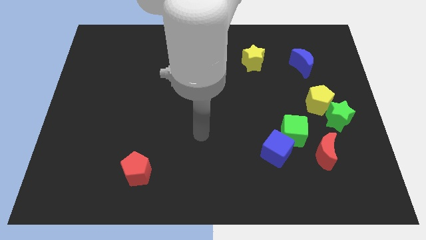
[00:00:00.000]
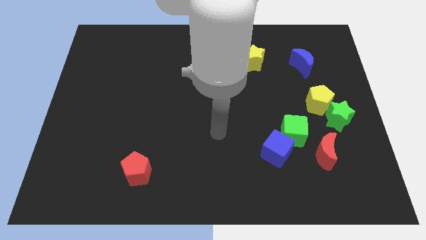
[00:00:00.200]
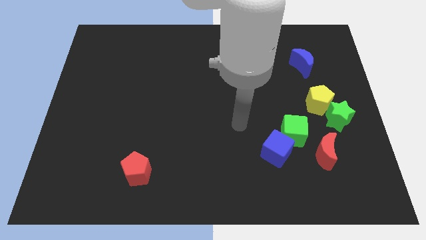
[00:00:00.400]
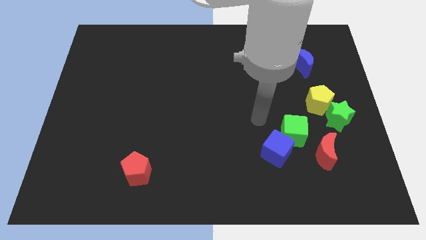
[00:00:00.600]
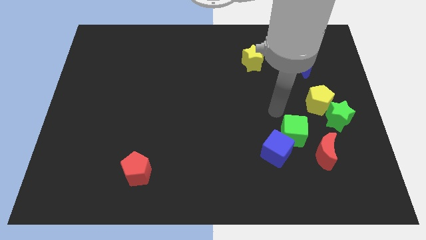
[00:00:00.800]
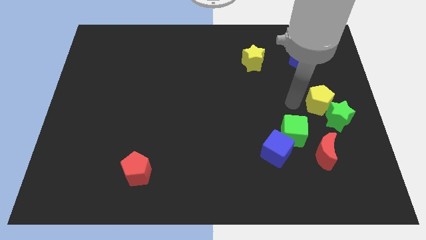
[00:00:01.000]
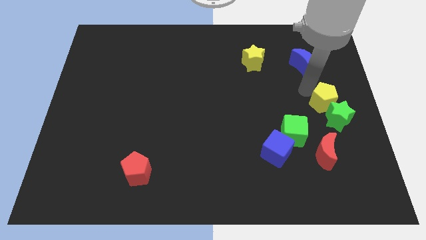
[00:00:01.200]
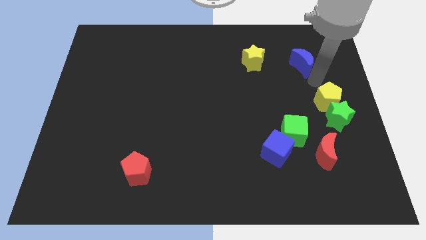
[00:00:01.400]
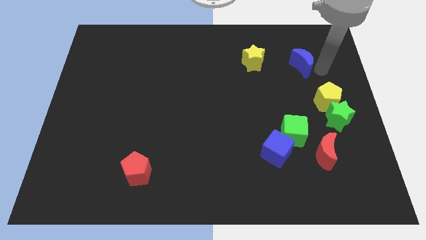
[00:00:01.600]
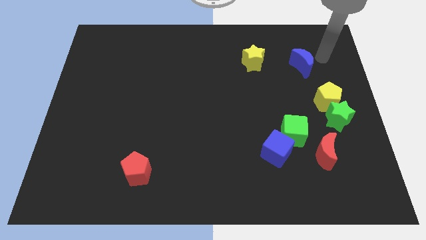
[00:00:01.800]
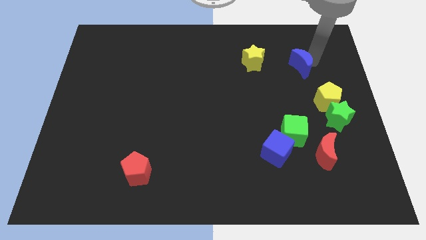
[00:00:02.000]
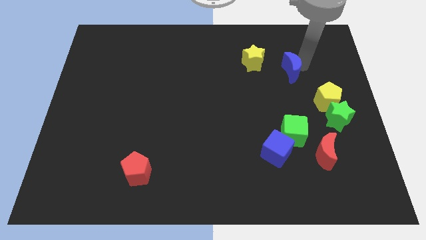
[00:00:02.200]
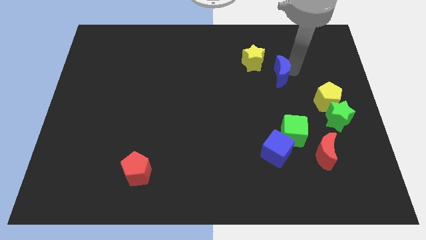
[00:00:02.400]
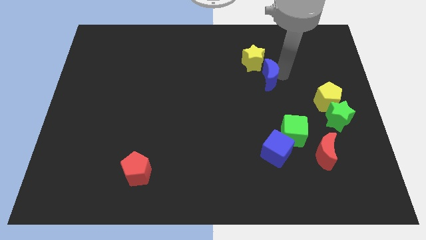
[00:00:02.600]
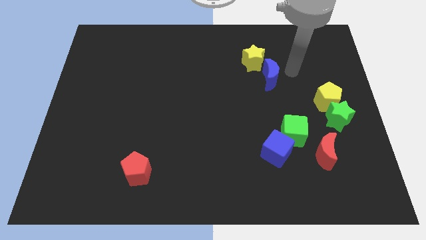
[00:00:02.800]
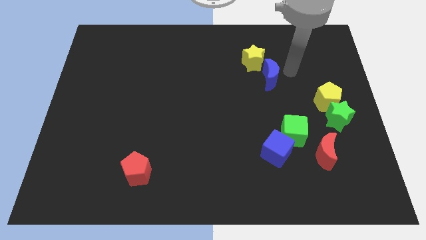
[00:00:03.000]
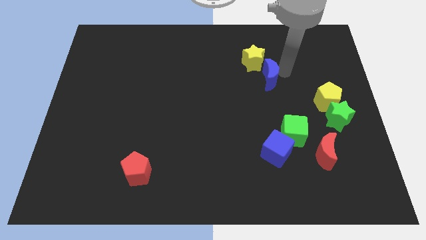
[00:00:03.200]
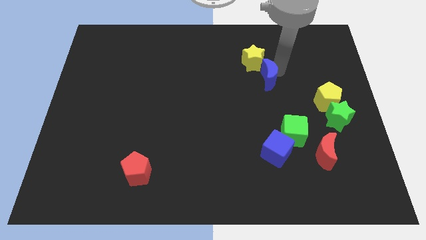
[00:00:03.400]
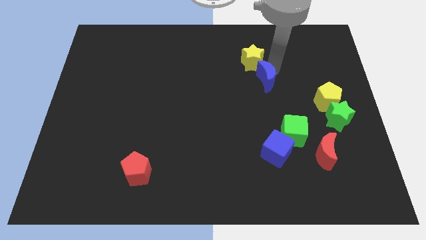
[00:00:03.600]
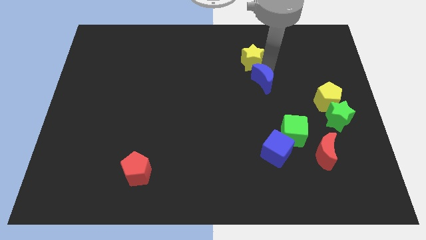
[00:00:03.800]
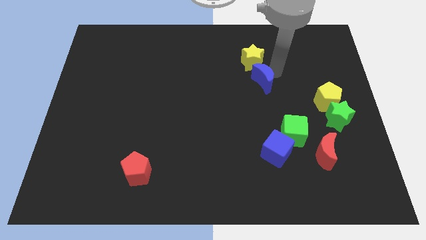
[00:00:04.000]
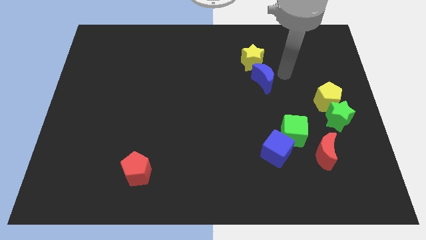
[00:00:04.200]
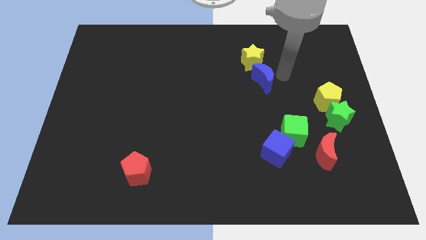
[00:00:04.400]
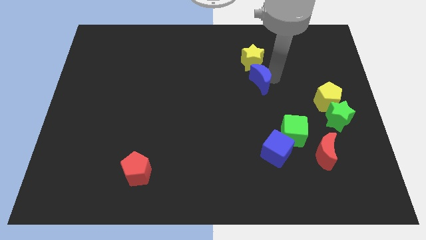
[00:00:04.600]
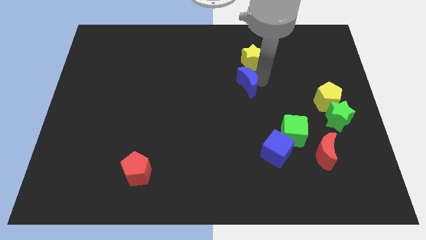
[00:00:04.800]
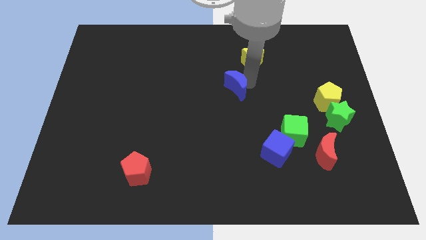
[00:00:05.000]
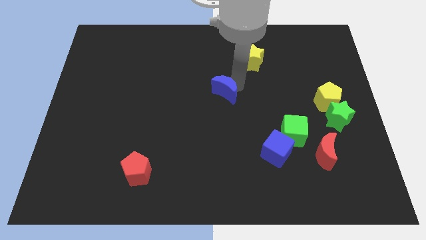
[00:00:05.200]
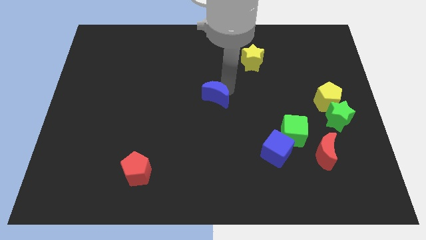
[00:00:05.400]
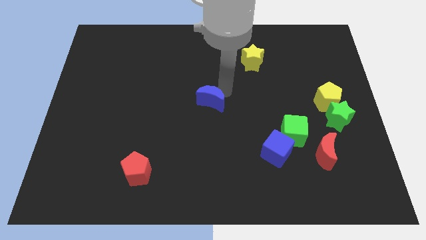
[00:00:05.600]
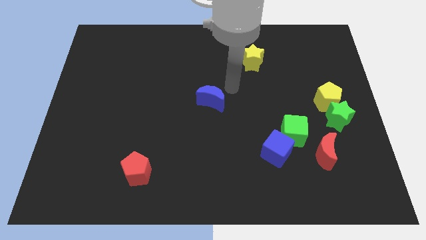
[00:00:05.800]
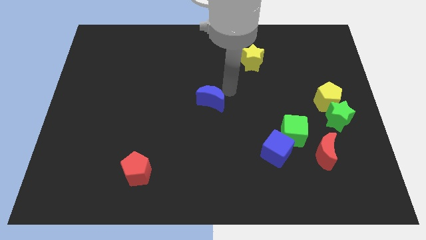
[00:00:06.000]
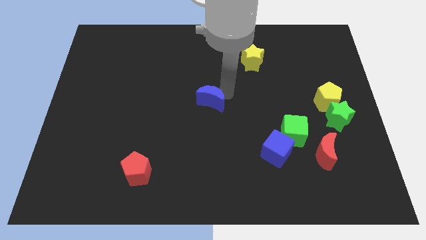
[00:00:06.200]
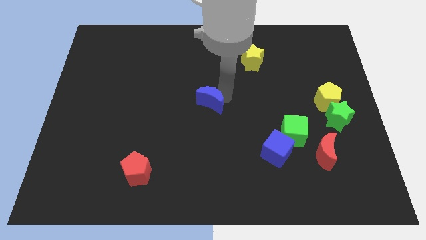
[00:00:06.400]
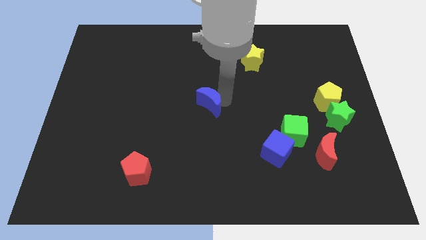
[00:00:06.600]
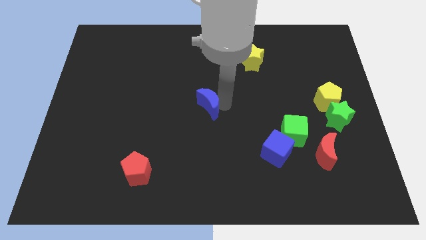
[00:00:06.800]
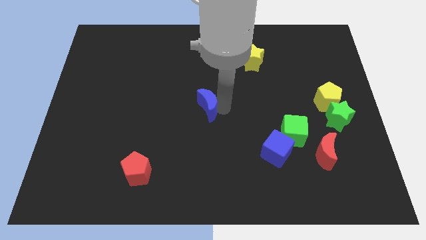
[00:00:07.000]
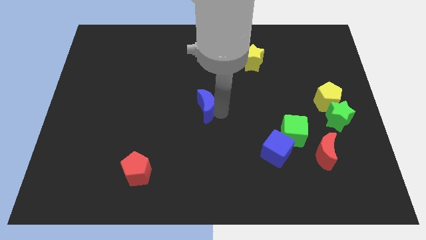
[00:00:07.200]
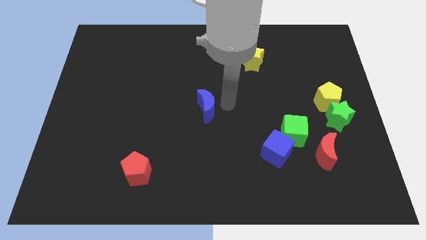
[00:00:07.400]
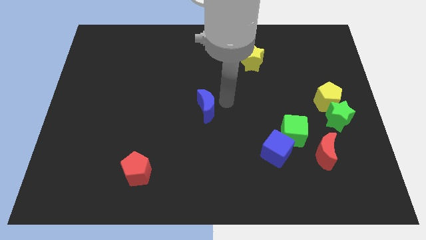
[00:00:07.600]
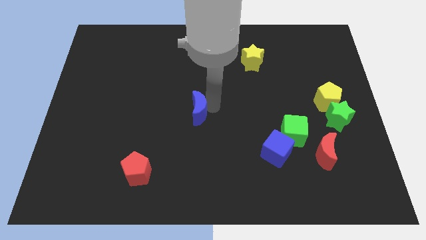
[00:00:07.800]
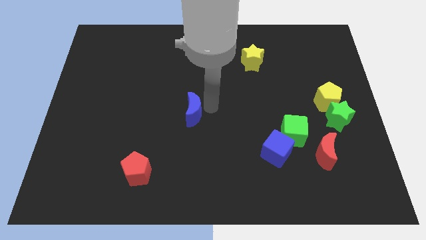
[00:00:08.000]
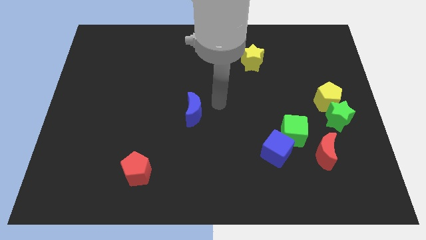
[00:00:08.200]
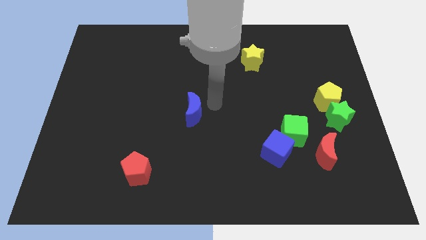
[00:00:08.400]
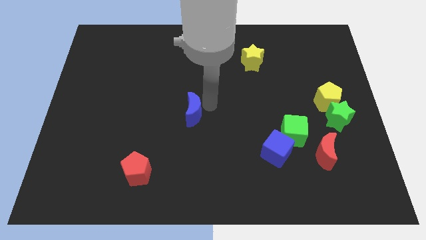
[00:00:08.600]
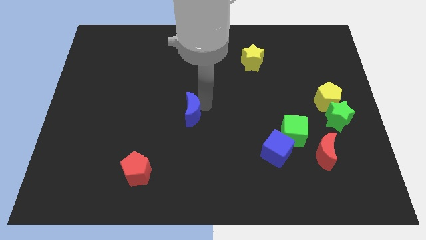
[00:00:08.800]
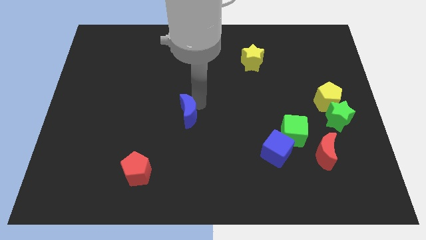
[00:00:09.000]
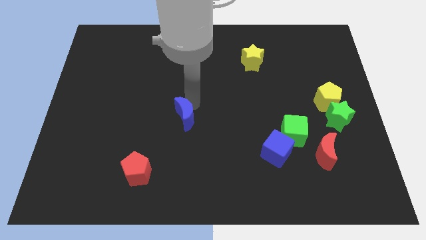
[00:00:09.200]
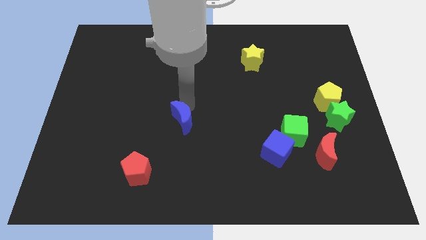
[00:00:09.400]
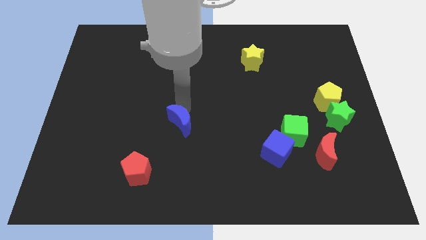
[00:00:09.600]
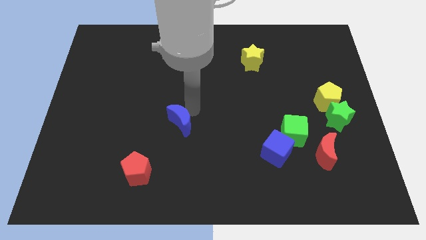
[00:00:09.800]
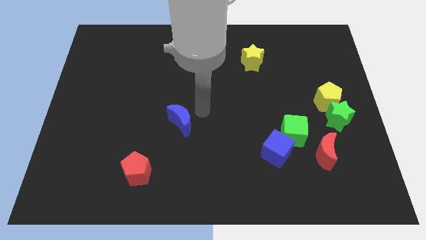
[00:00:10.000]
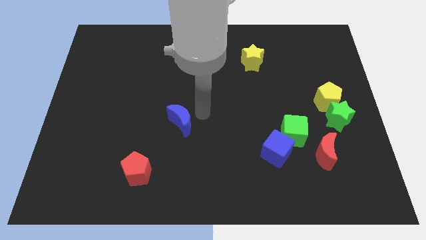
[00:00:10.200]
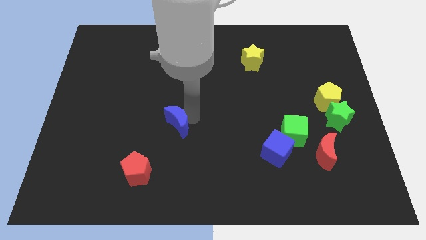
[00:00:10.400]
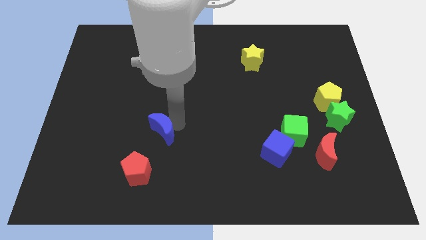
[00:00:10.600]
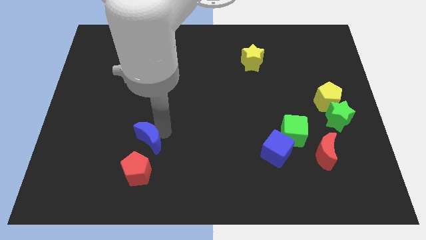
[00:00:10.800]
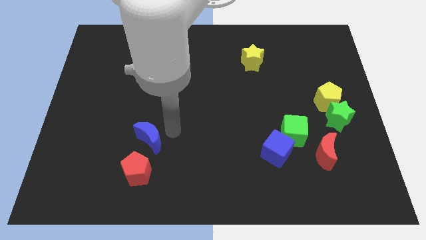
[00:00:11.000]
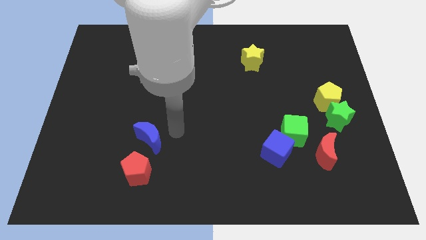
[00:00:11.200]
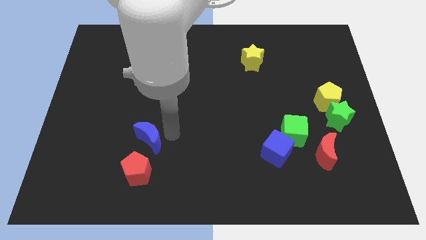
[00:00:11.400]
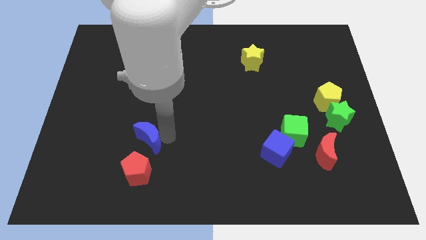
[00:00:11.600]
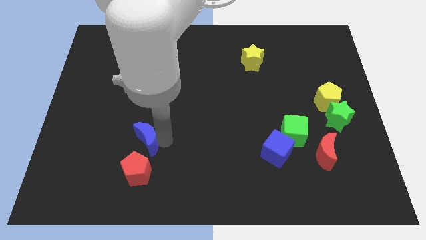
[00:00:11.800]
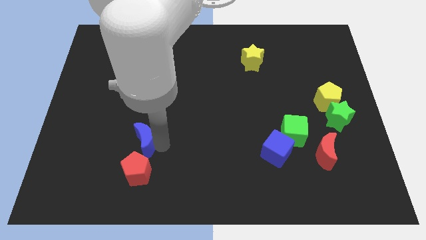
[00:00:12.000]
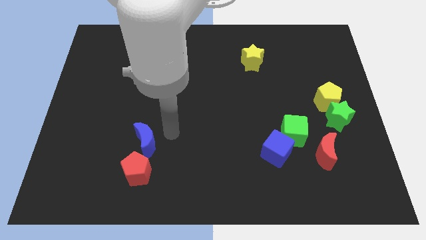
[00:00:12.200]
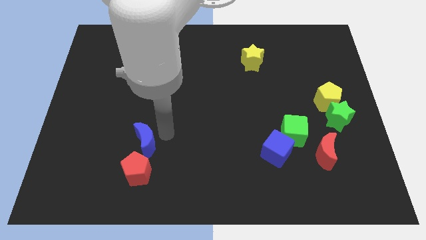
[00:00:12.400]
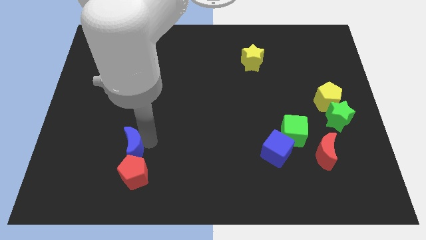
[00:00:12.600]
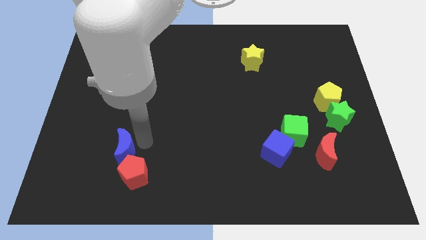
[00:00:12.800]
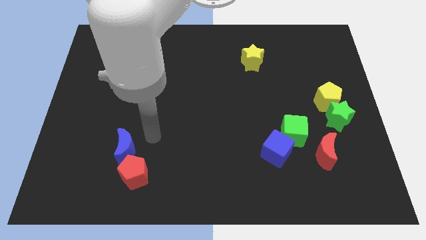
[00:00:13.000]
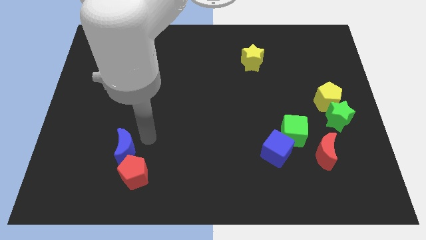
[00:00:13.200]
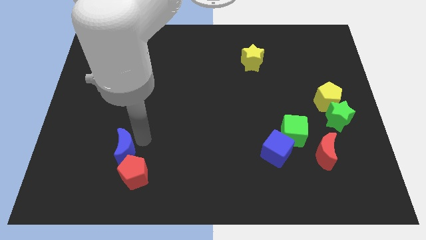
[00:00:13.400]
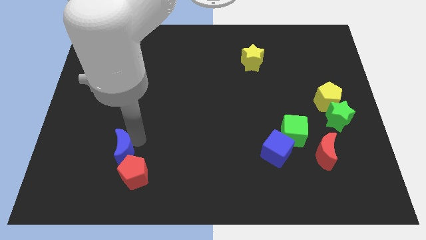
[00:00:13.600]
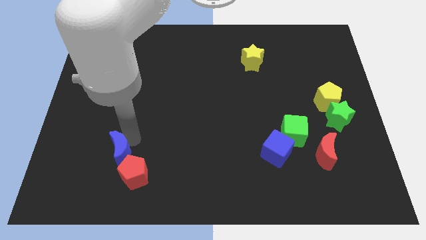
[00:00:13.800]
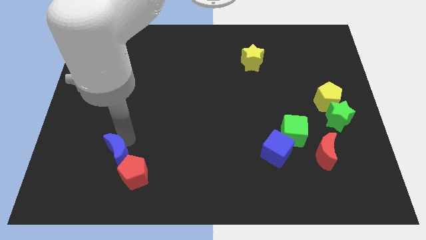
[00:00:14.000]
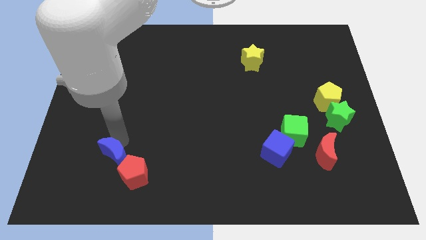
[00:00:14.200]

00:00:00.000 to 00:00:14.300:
move the blue moon just left of the red pentagon

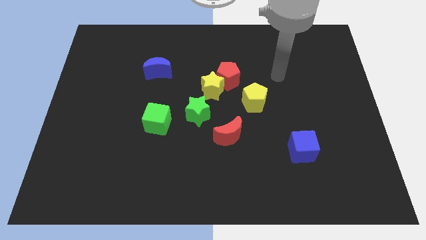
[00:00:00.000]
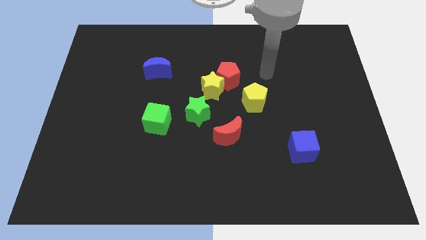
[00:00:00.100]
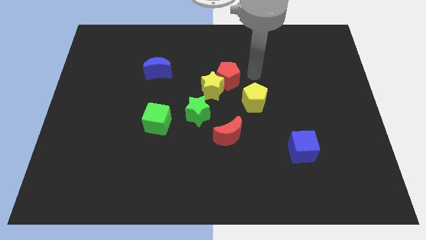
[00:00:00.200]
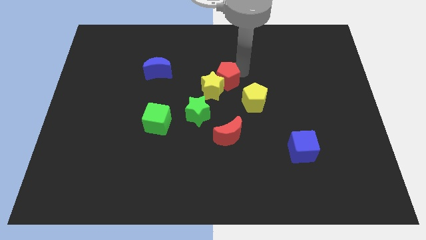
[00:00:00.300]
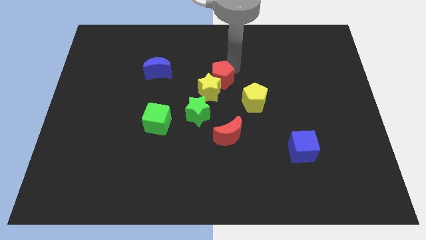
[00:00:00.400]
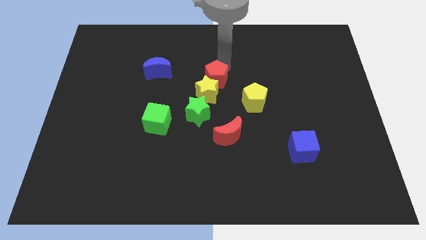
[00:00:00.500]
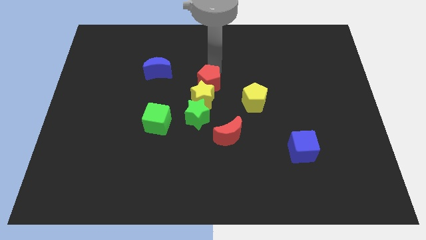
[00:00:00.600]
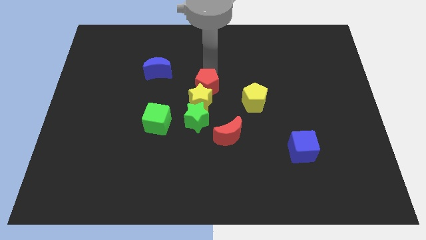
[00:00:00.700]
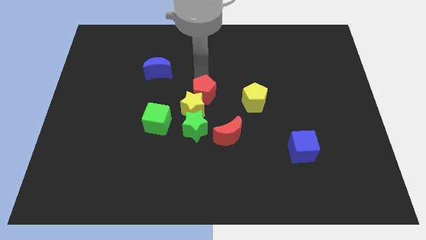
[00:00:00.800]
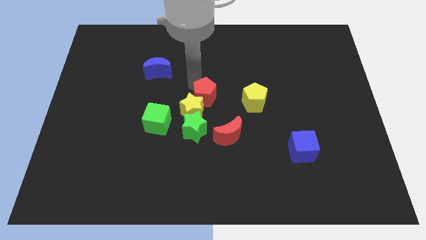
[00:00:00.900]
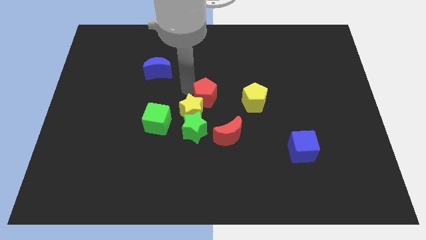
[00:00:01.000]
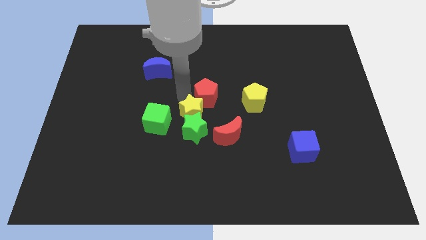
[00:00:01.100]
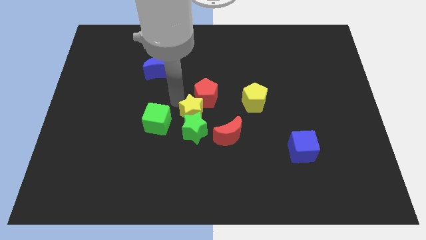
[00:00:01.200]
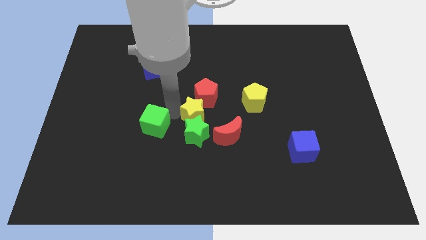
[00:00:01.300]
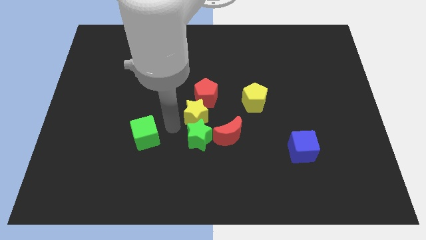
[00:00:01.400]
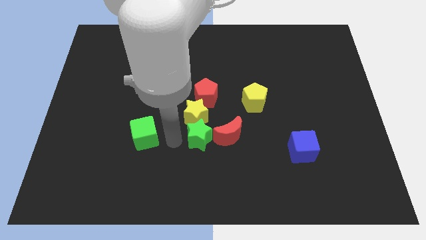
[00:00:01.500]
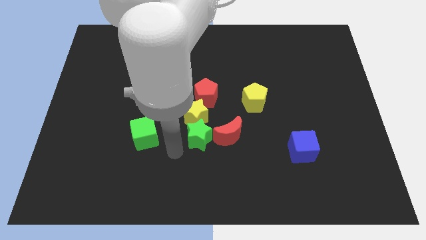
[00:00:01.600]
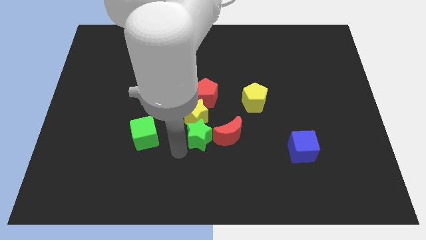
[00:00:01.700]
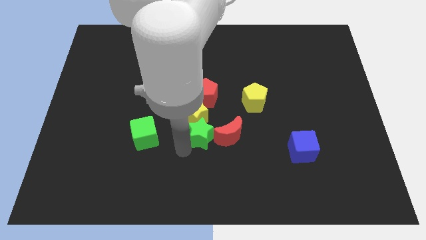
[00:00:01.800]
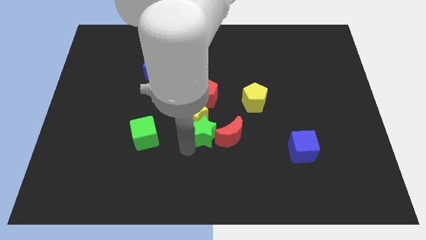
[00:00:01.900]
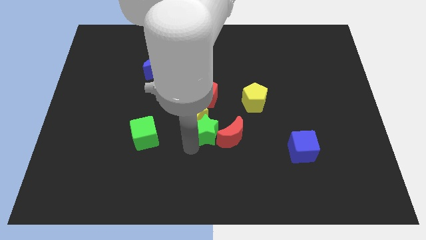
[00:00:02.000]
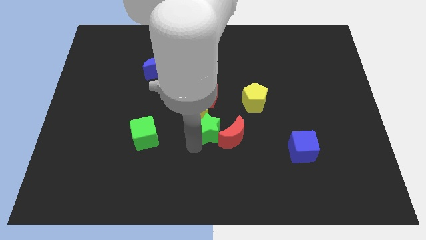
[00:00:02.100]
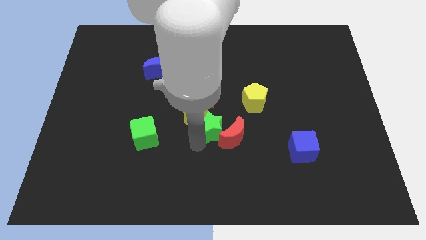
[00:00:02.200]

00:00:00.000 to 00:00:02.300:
push the green star to the bottom left of the yellow pentagon
